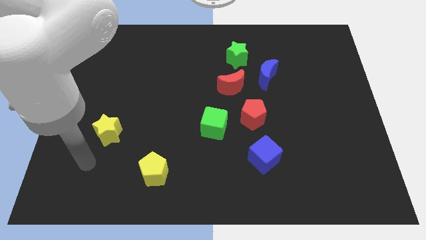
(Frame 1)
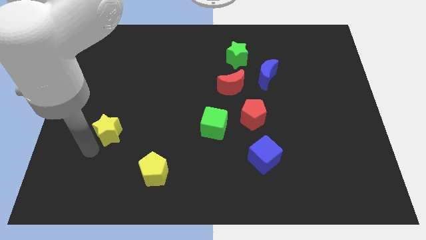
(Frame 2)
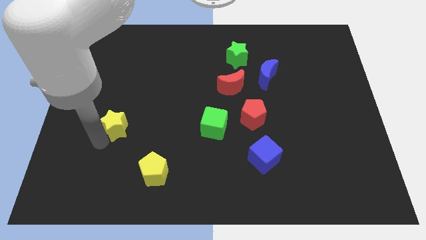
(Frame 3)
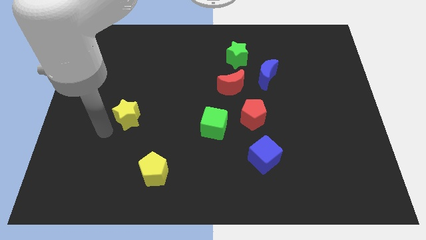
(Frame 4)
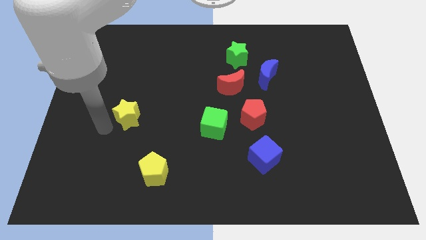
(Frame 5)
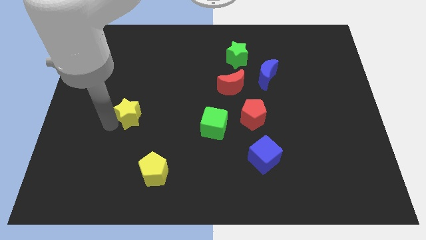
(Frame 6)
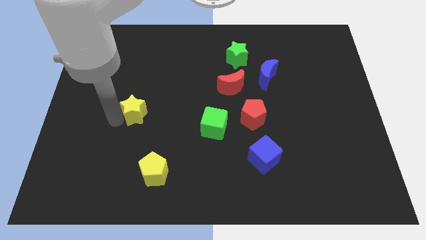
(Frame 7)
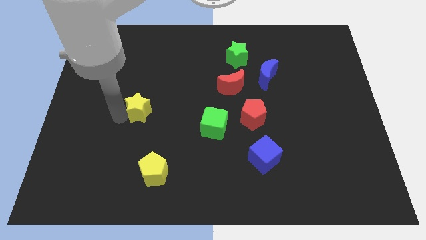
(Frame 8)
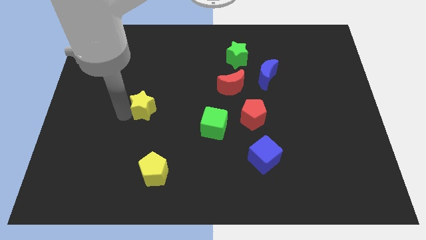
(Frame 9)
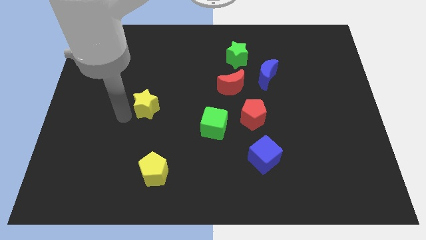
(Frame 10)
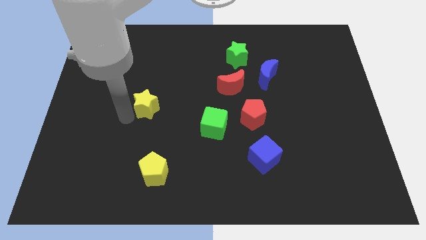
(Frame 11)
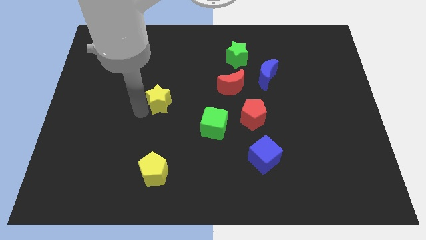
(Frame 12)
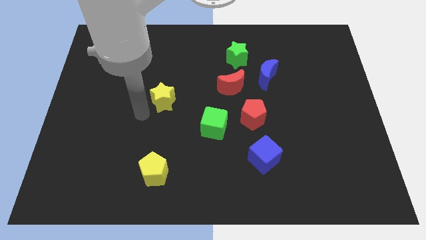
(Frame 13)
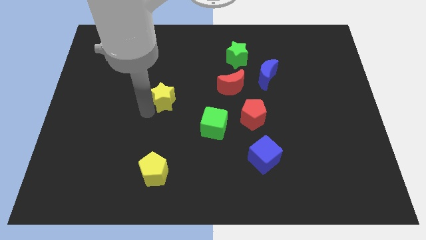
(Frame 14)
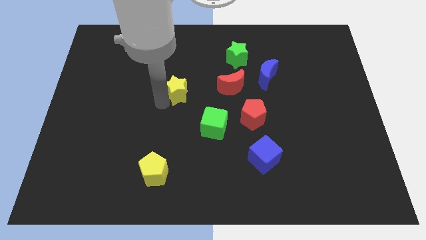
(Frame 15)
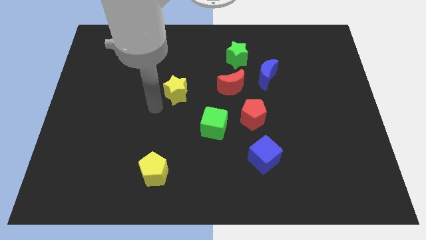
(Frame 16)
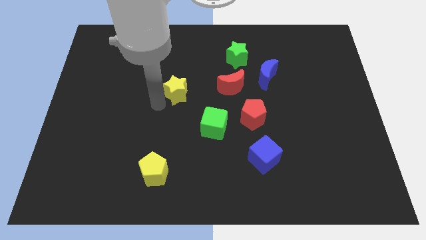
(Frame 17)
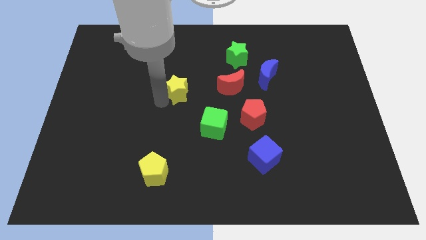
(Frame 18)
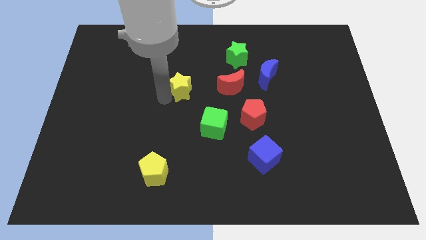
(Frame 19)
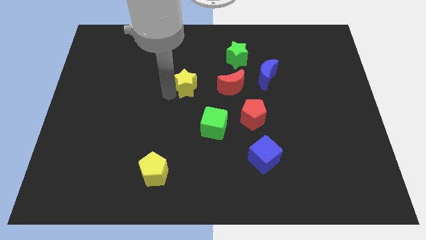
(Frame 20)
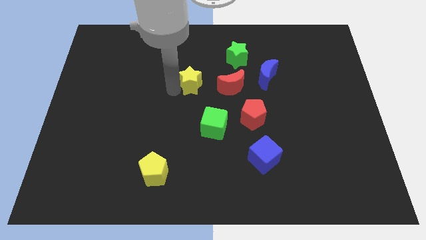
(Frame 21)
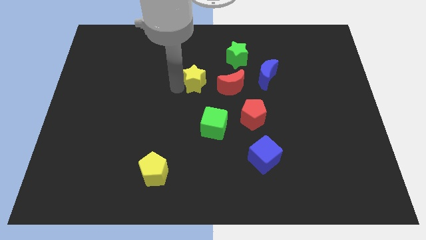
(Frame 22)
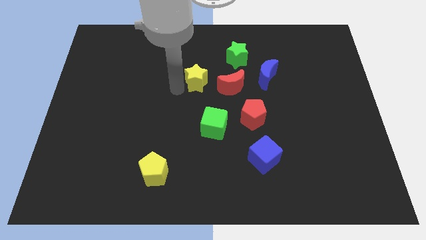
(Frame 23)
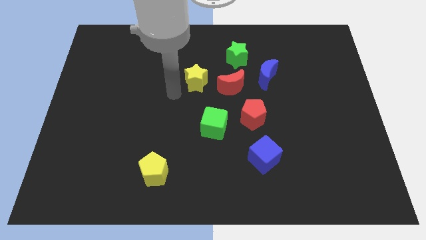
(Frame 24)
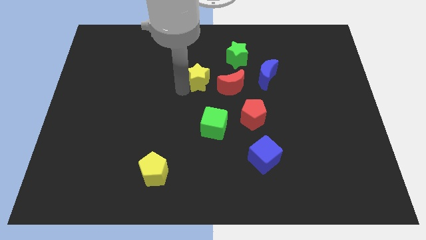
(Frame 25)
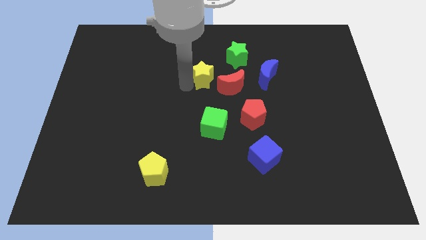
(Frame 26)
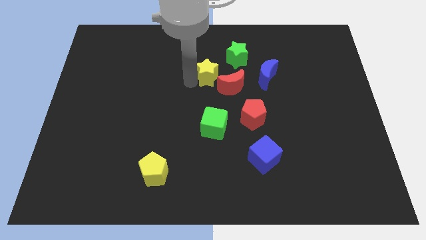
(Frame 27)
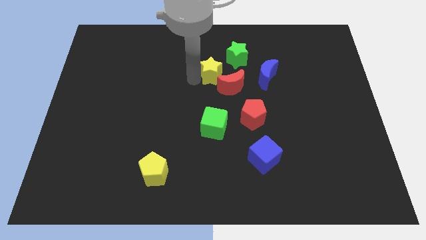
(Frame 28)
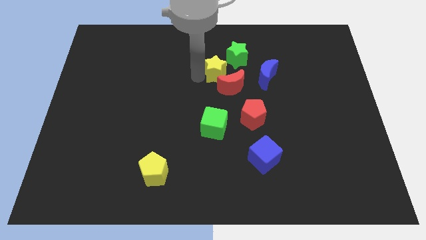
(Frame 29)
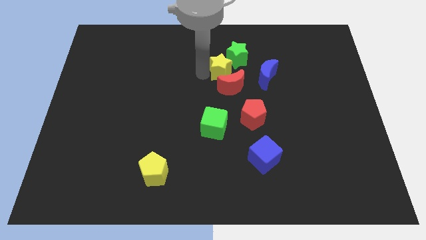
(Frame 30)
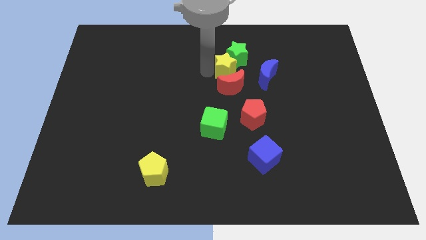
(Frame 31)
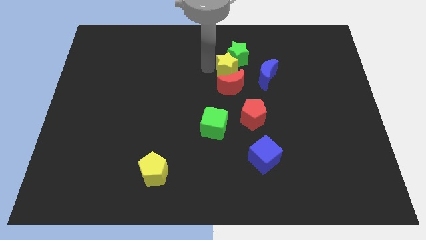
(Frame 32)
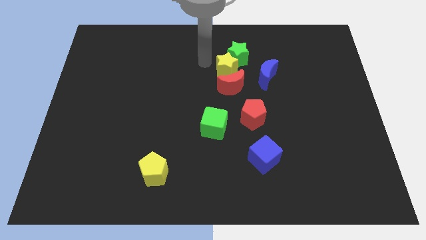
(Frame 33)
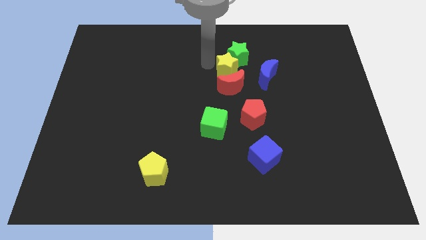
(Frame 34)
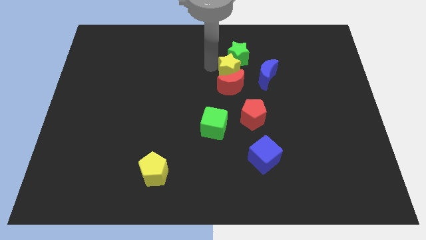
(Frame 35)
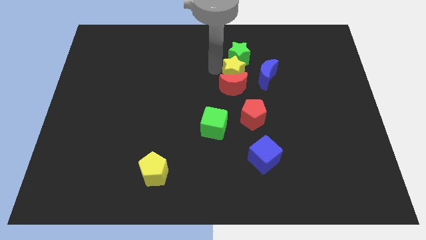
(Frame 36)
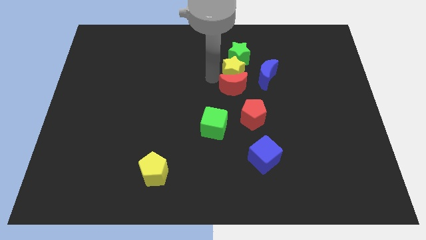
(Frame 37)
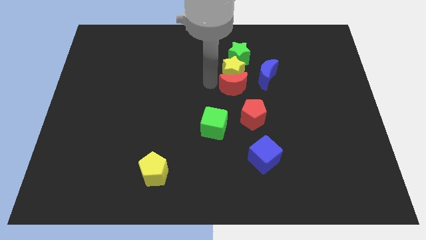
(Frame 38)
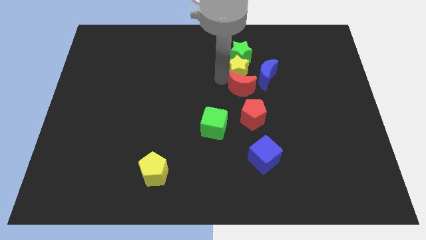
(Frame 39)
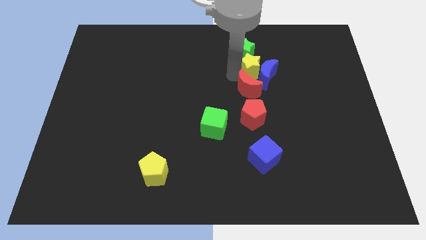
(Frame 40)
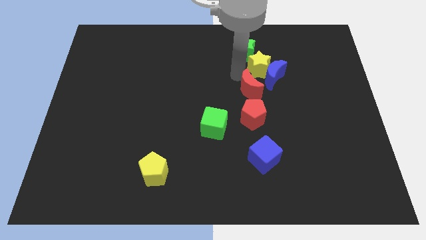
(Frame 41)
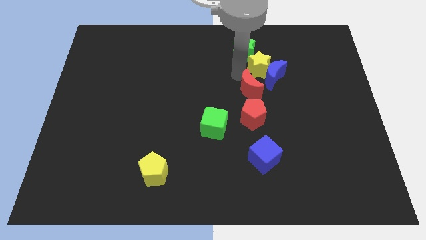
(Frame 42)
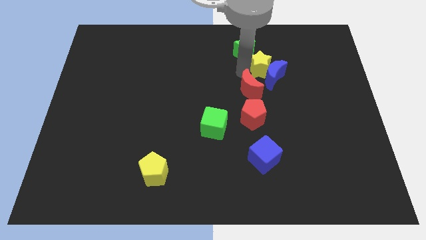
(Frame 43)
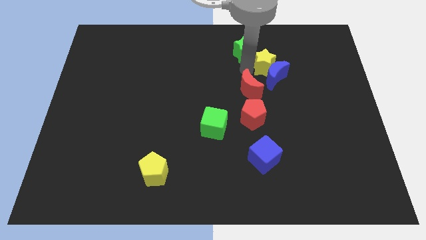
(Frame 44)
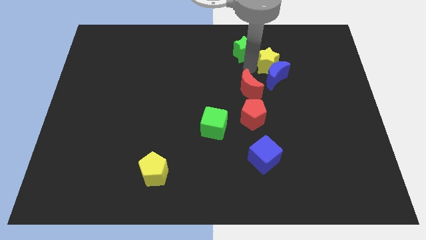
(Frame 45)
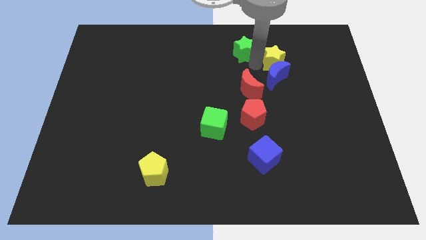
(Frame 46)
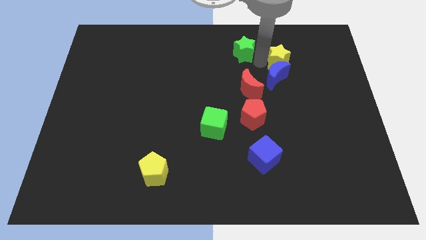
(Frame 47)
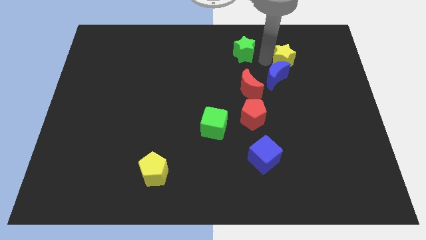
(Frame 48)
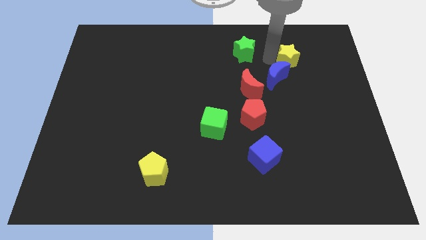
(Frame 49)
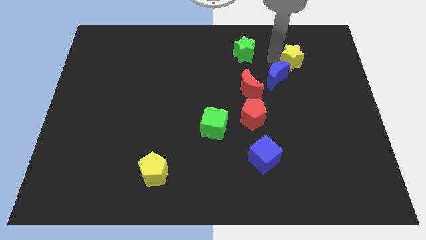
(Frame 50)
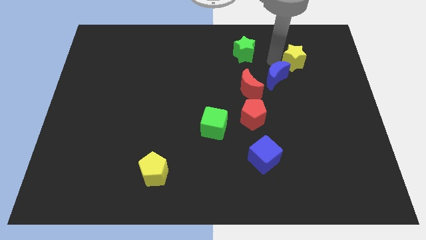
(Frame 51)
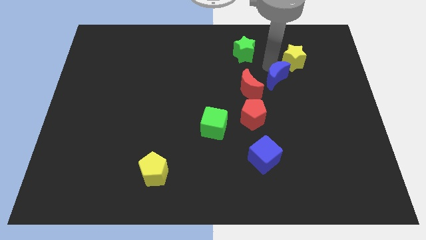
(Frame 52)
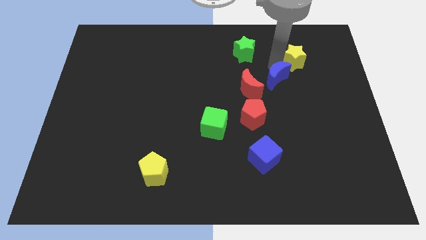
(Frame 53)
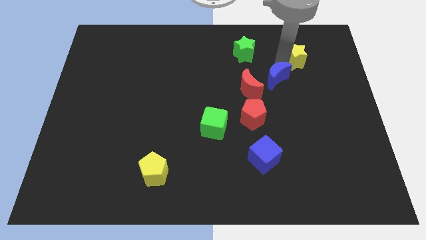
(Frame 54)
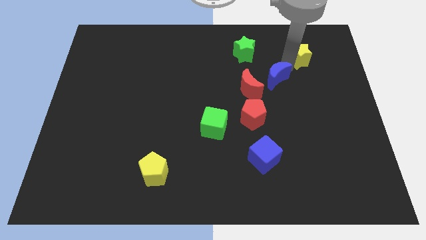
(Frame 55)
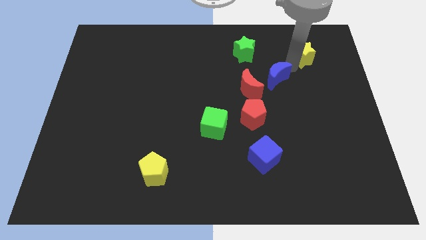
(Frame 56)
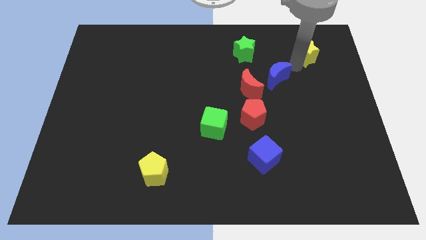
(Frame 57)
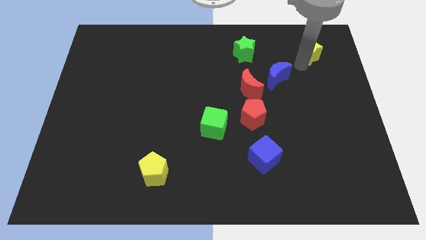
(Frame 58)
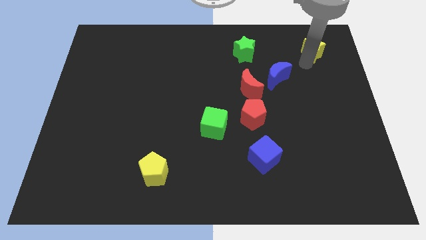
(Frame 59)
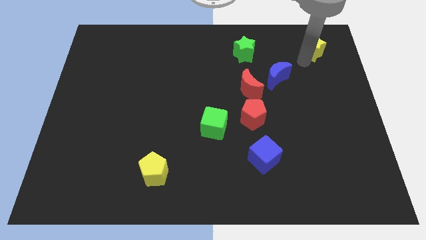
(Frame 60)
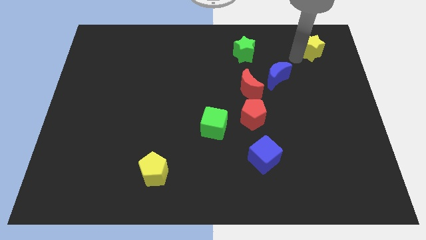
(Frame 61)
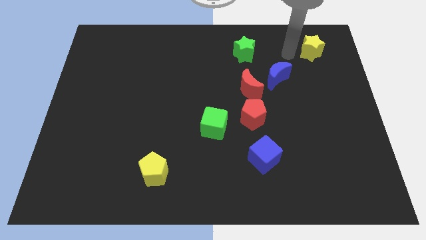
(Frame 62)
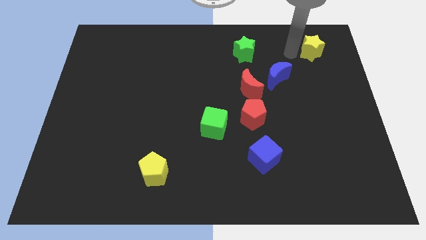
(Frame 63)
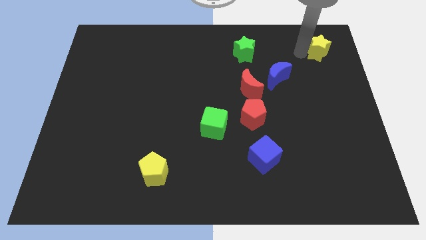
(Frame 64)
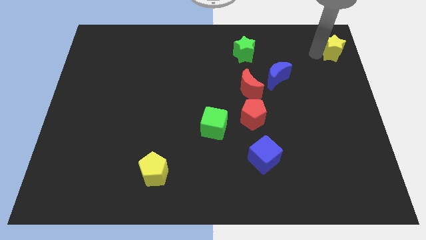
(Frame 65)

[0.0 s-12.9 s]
put the yellow star to the top right corner

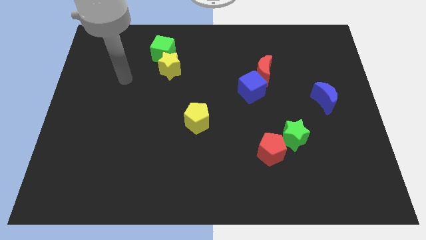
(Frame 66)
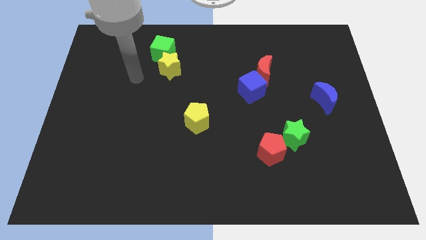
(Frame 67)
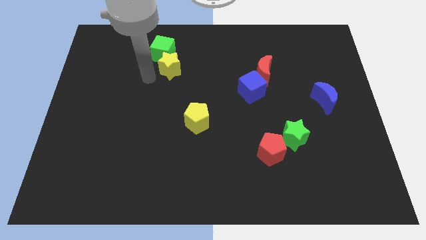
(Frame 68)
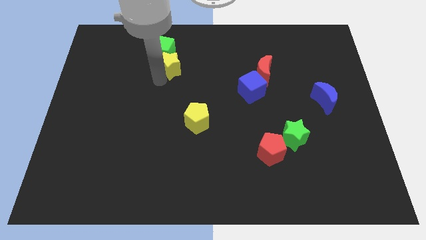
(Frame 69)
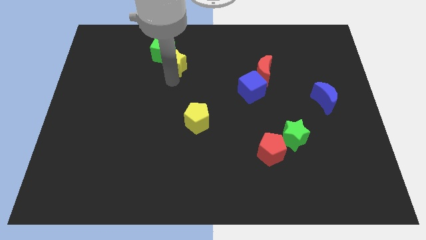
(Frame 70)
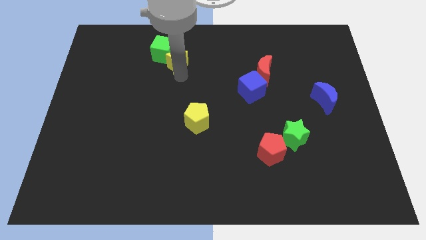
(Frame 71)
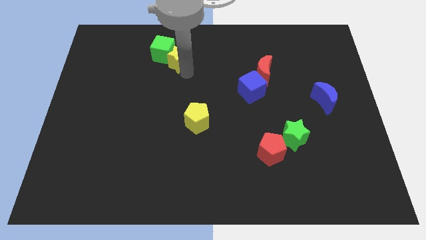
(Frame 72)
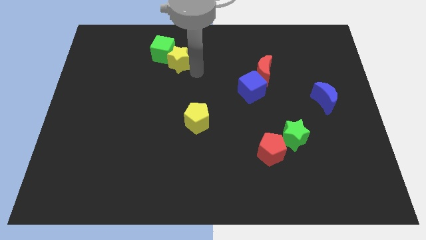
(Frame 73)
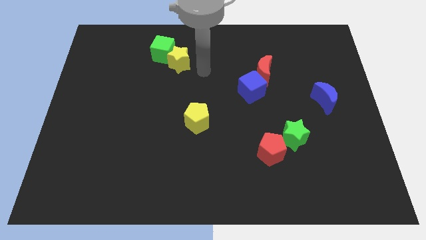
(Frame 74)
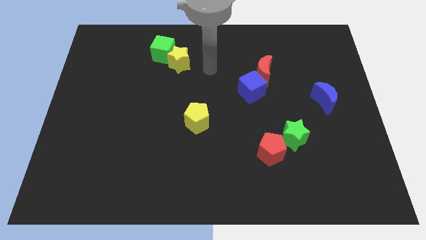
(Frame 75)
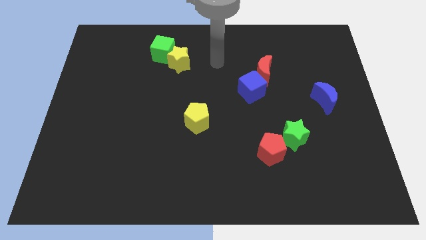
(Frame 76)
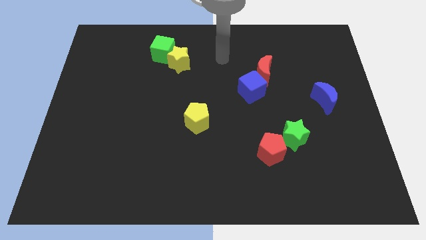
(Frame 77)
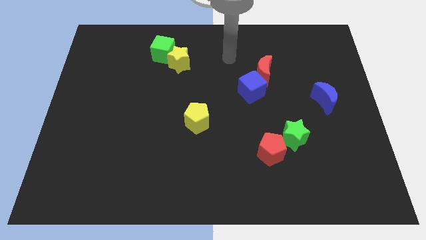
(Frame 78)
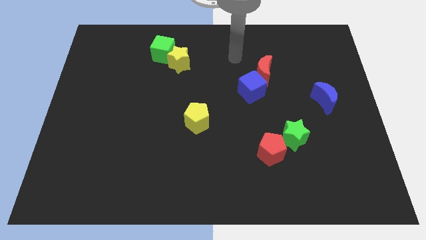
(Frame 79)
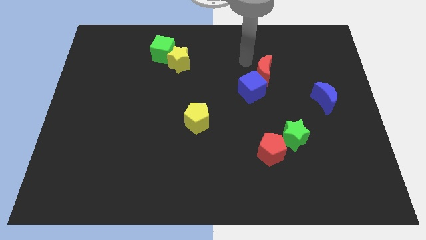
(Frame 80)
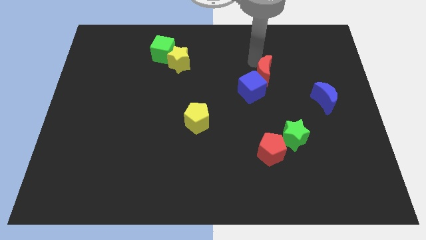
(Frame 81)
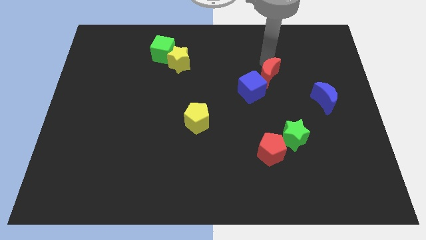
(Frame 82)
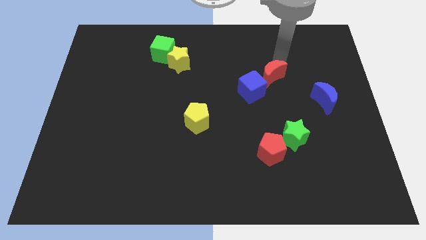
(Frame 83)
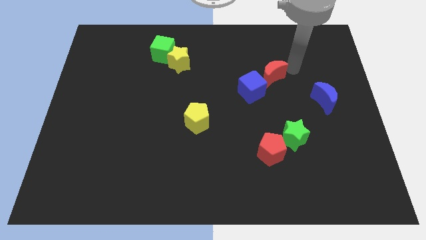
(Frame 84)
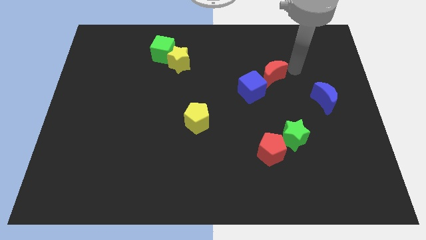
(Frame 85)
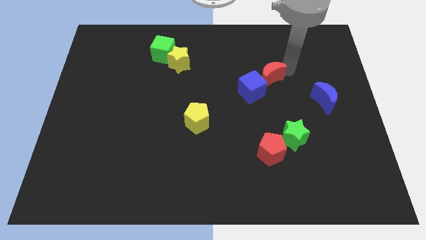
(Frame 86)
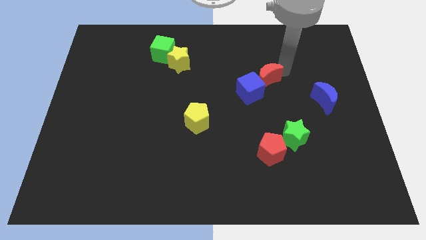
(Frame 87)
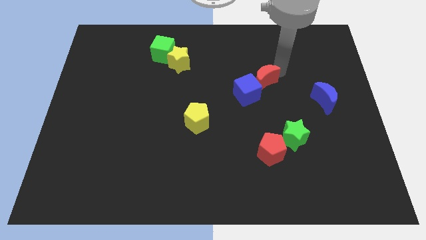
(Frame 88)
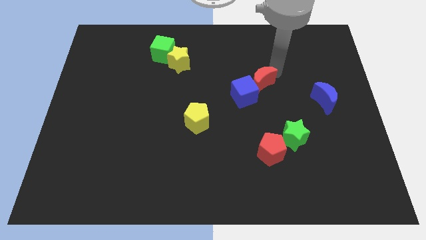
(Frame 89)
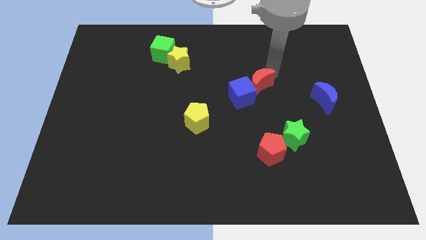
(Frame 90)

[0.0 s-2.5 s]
put the red moon to the center
